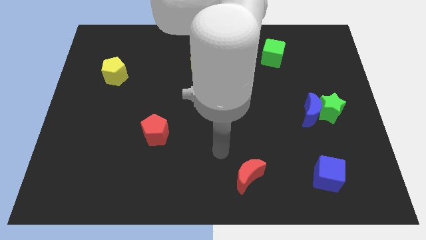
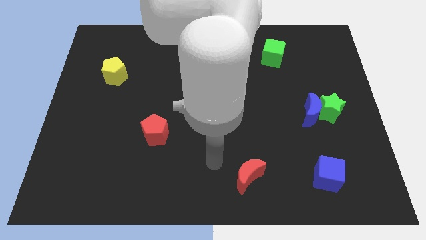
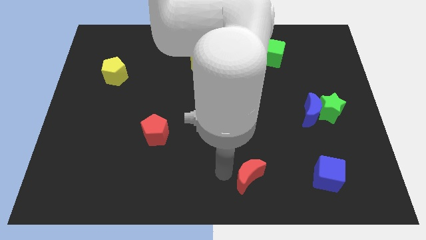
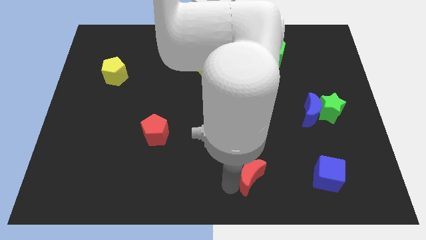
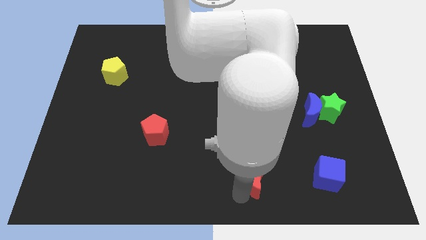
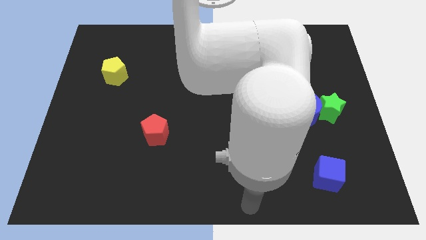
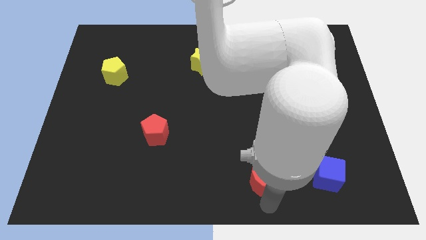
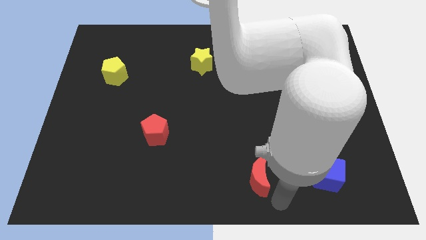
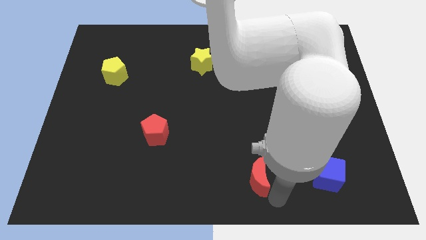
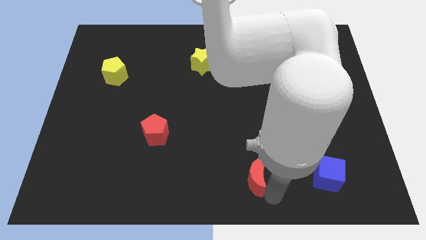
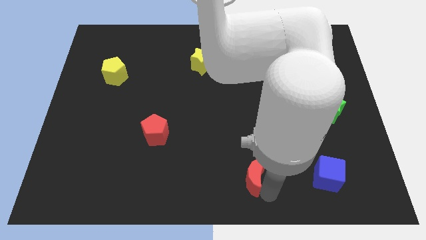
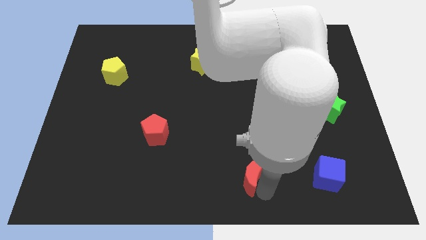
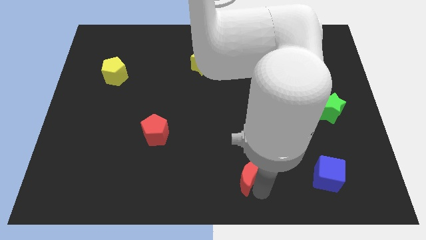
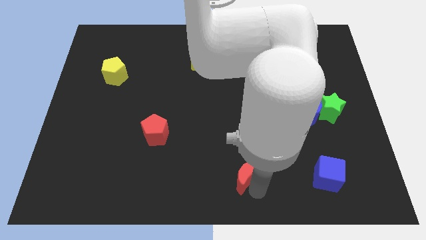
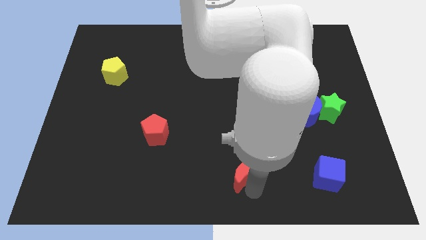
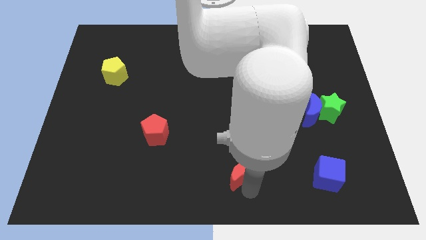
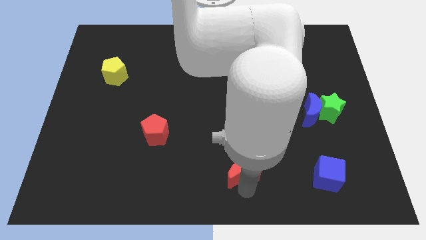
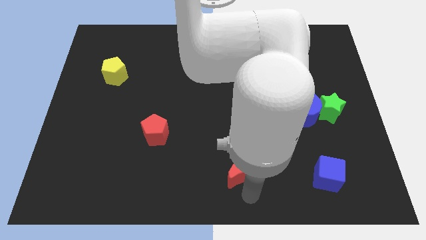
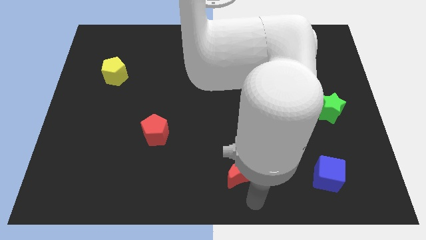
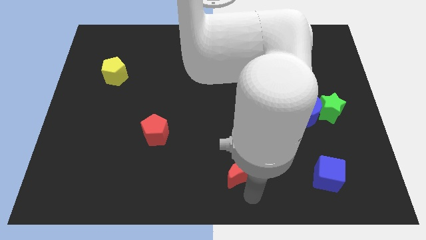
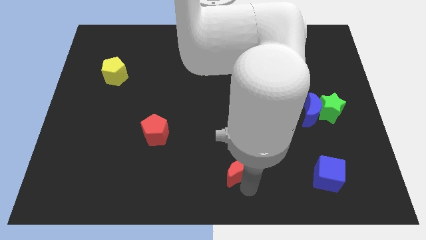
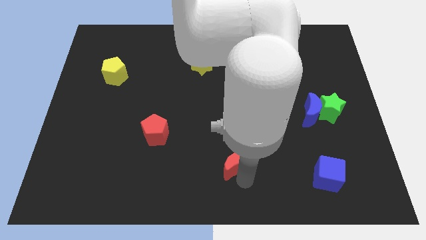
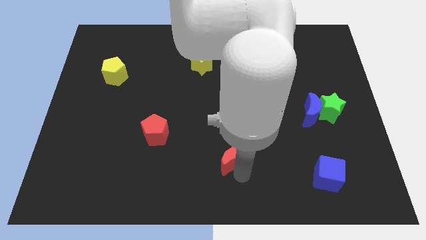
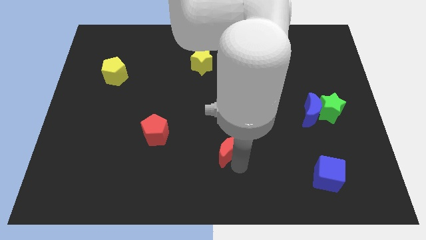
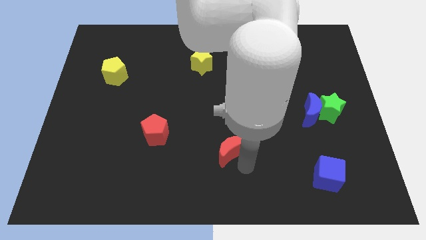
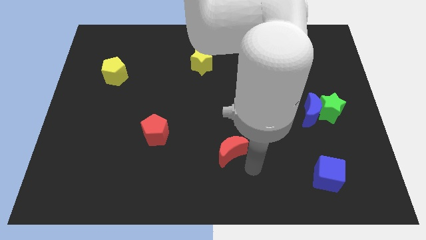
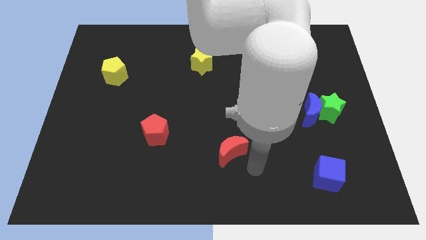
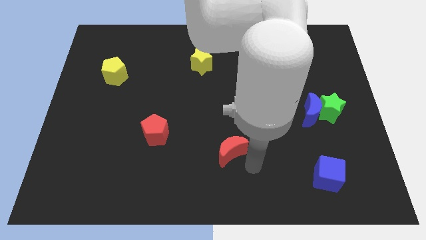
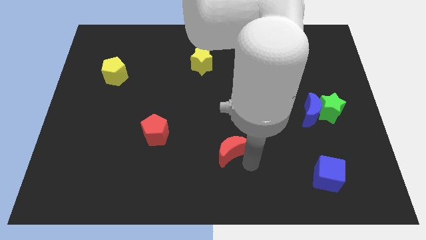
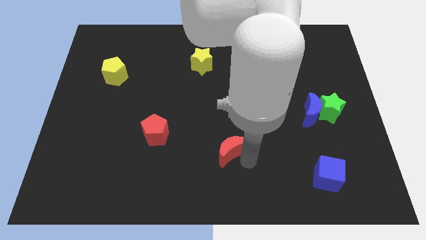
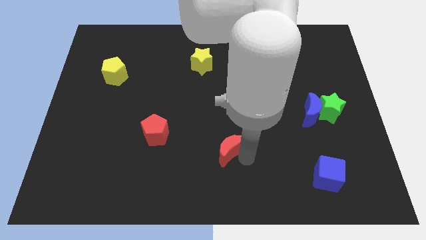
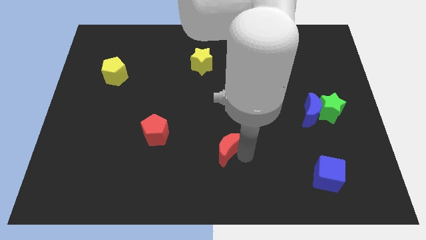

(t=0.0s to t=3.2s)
slightly slide the red moon upwards and left

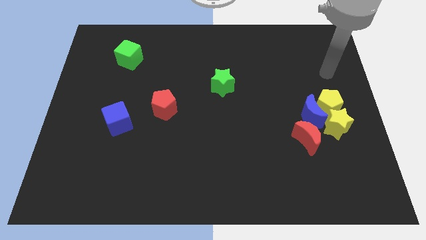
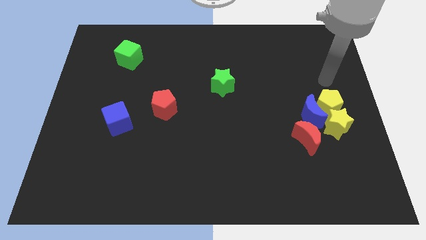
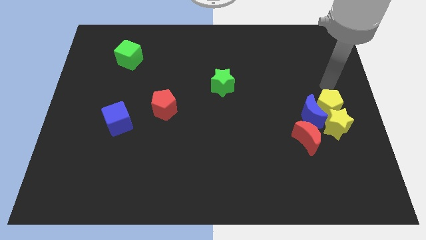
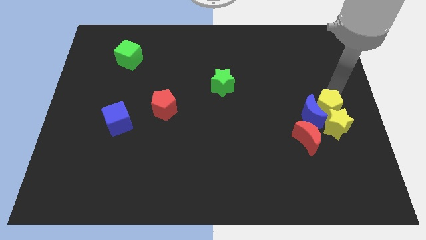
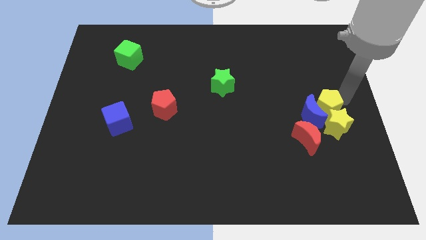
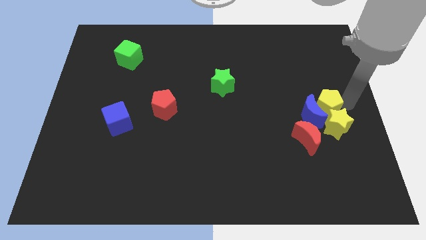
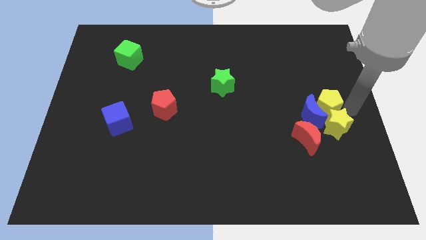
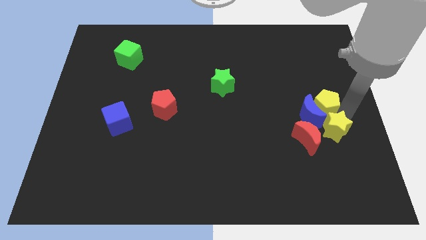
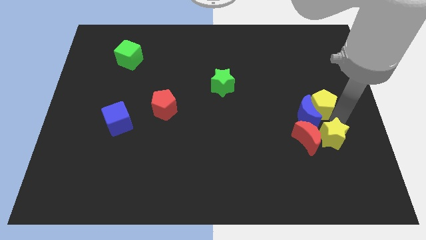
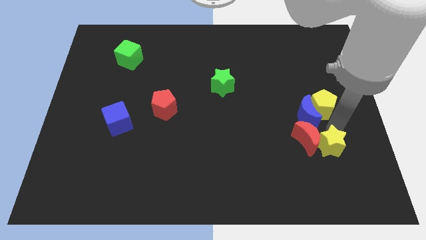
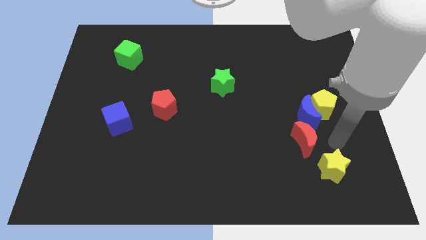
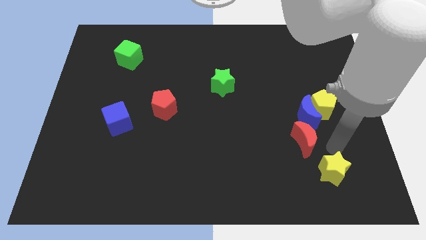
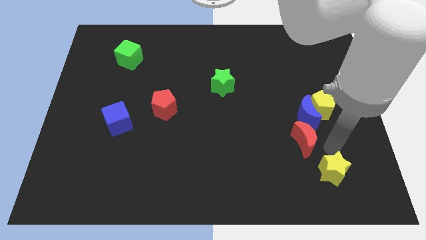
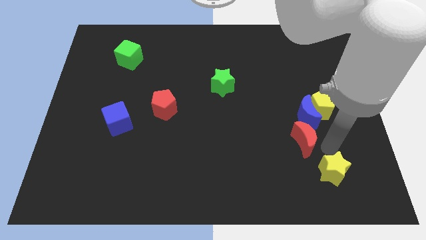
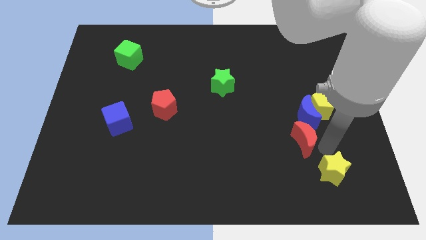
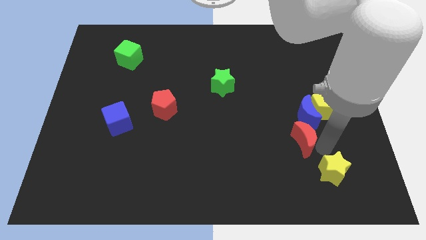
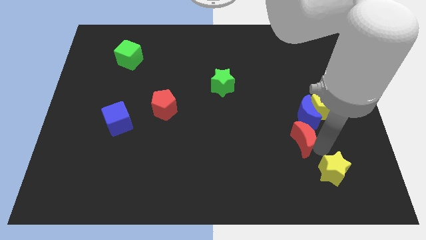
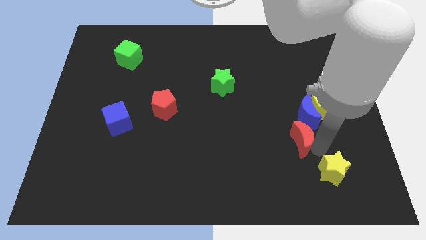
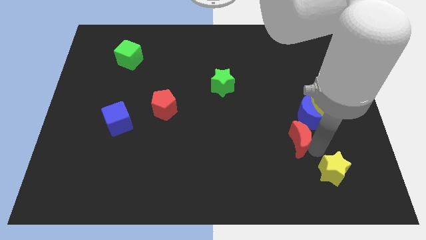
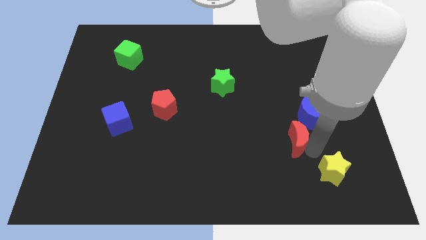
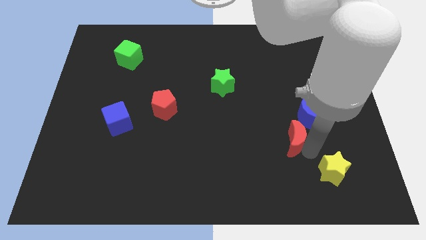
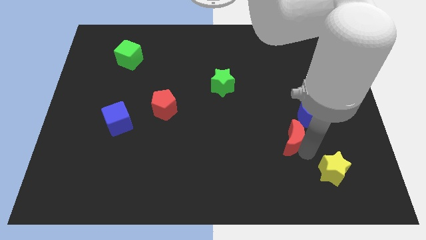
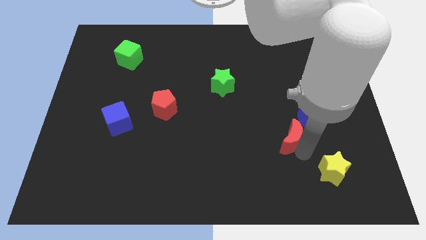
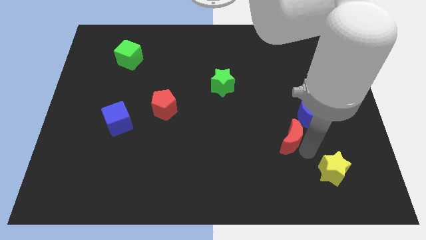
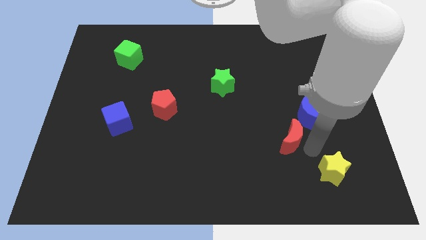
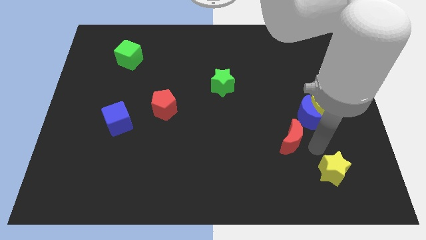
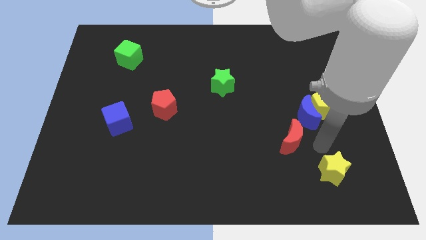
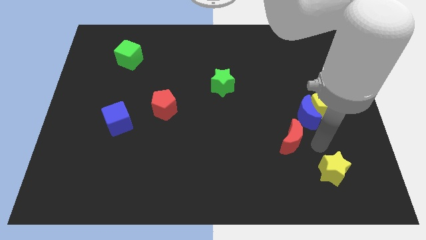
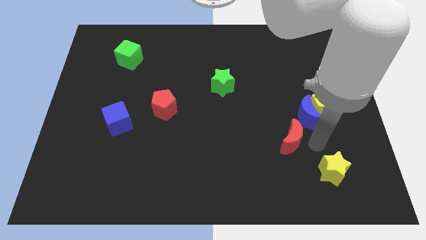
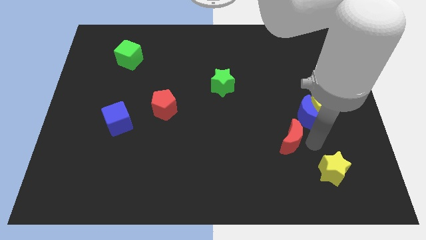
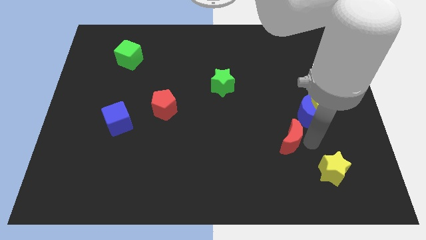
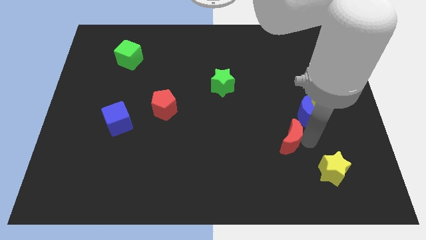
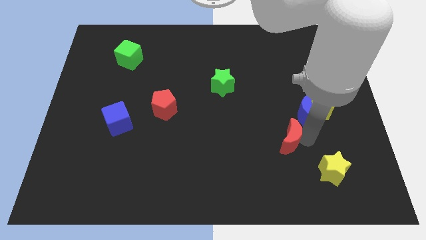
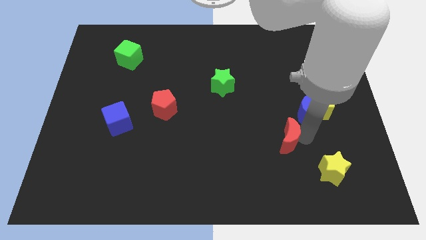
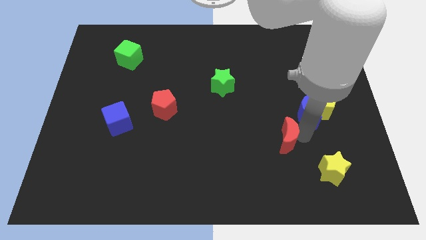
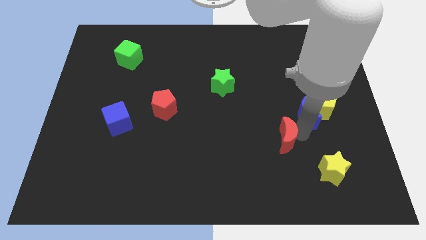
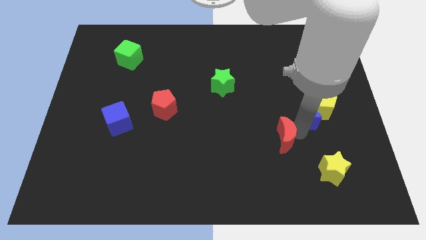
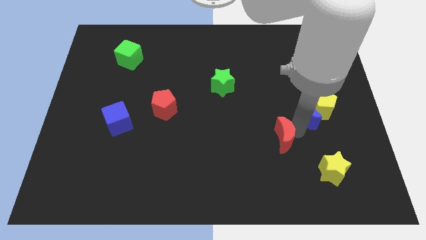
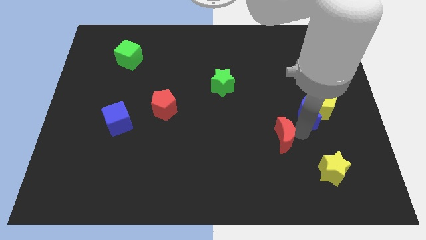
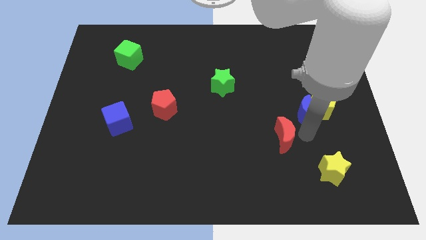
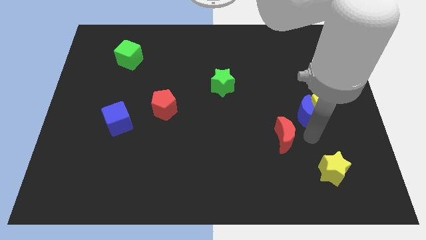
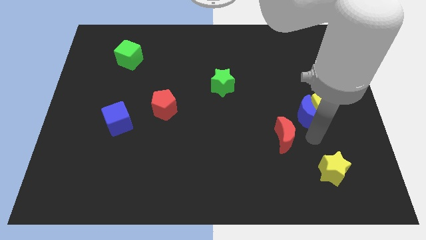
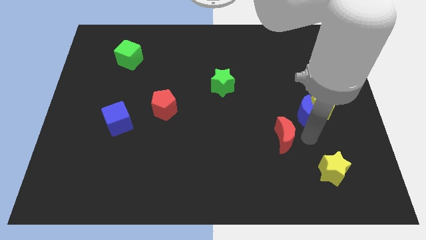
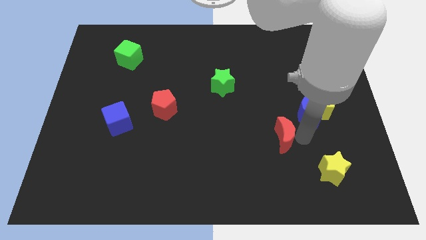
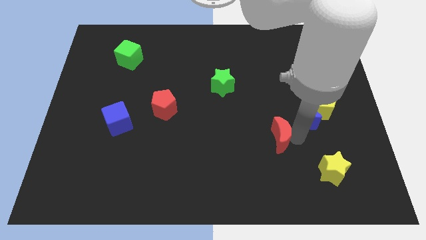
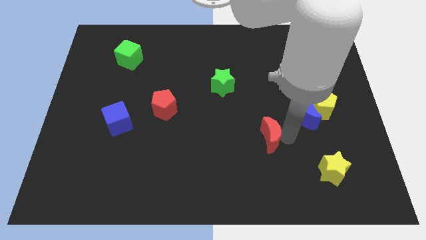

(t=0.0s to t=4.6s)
move the red moon left slightly
